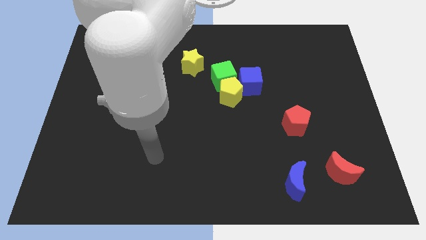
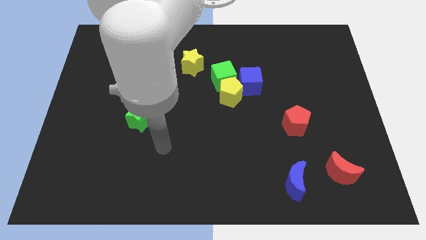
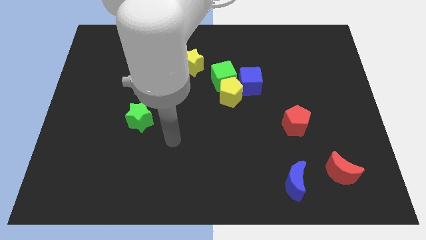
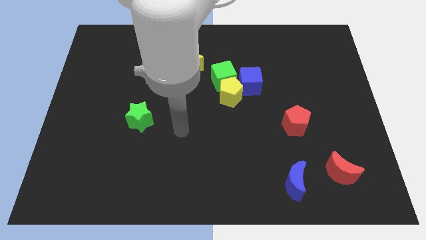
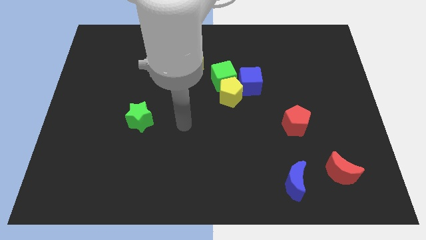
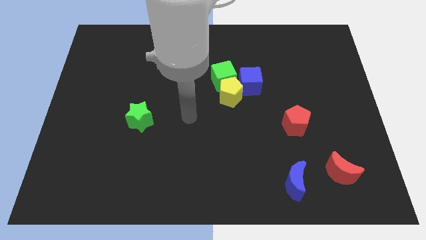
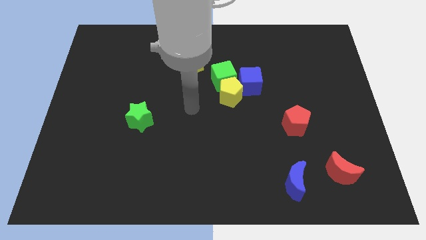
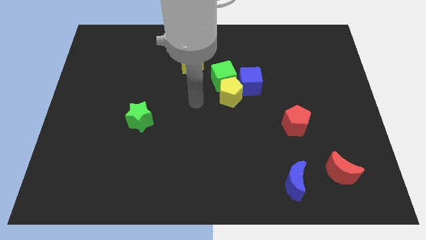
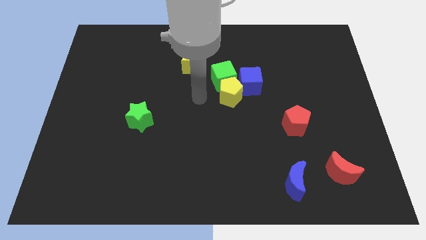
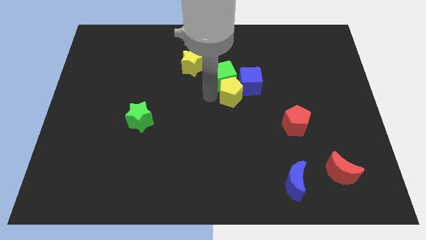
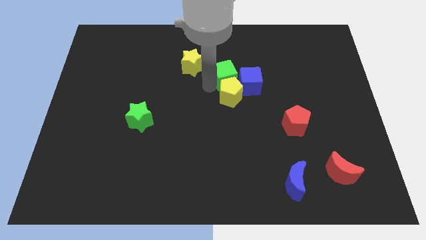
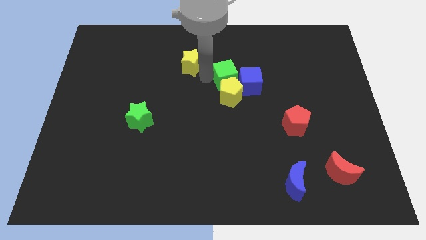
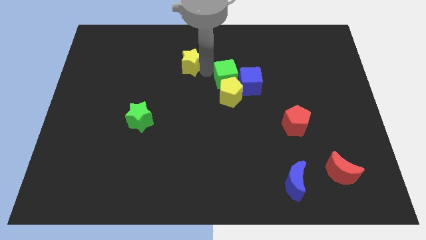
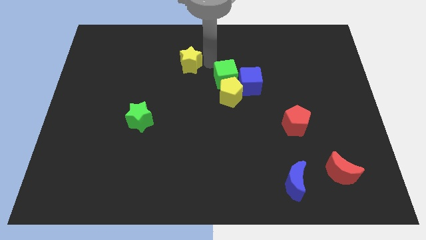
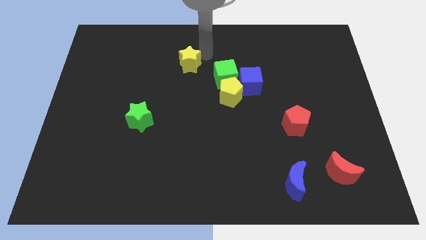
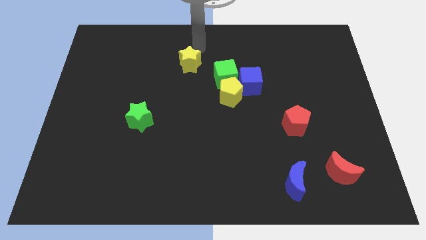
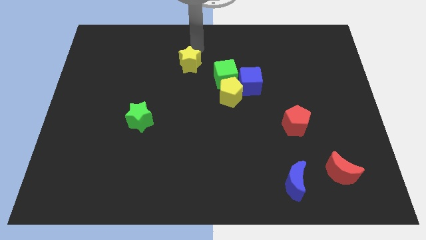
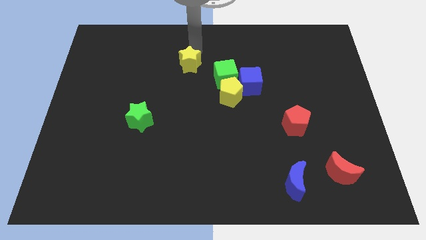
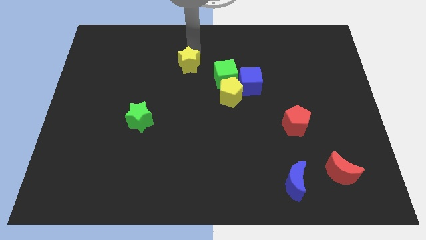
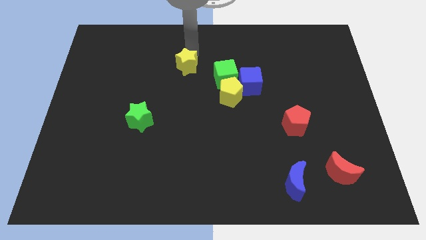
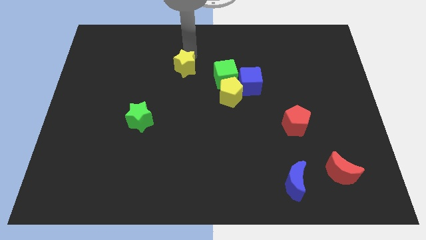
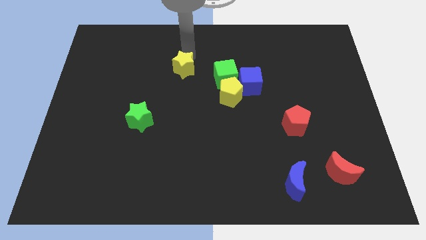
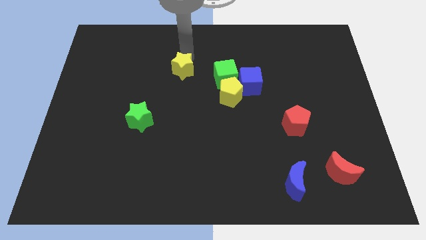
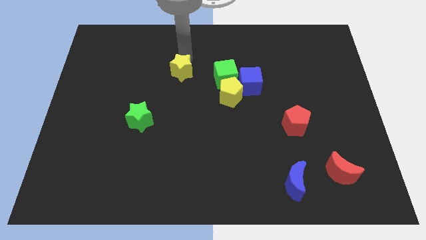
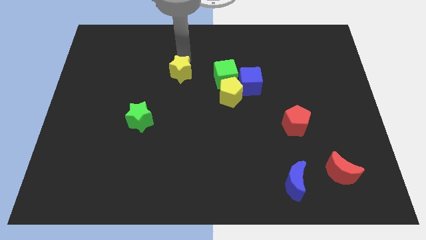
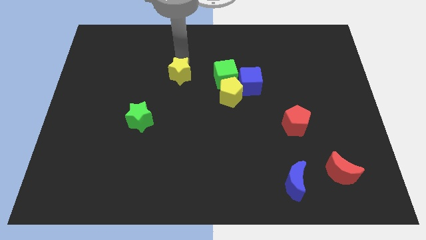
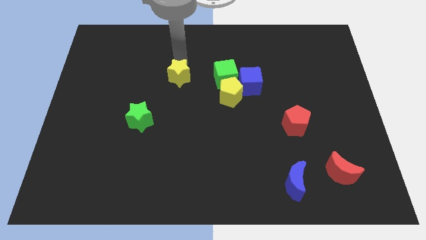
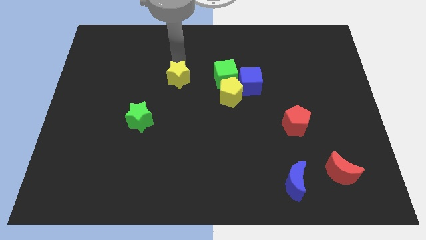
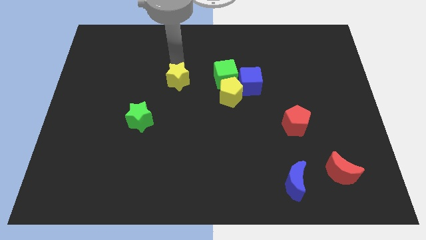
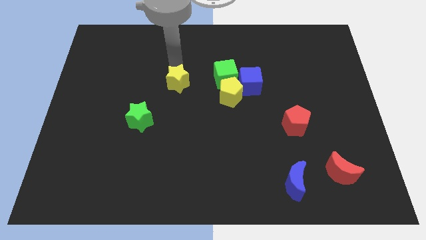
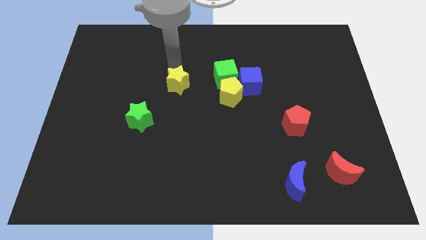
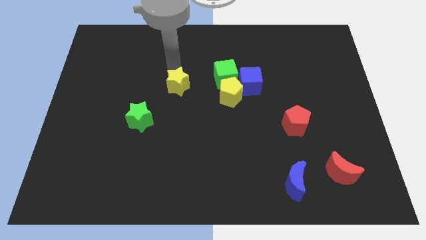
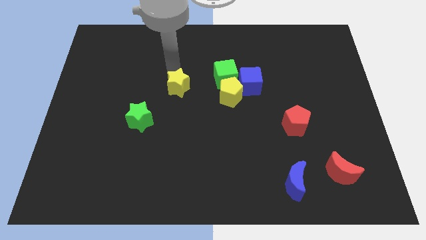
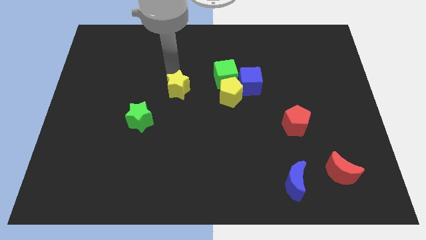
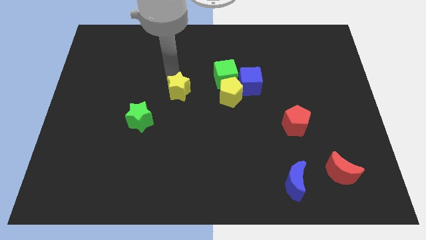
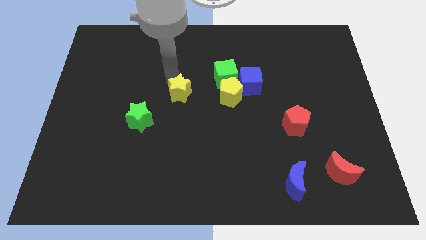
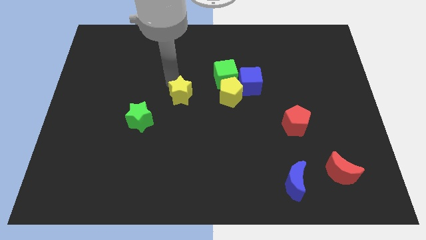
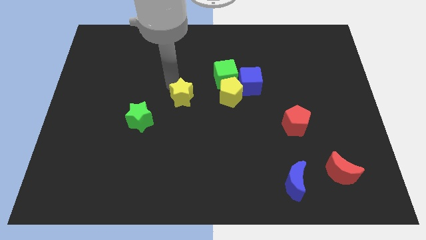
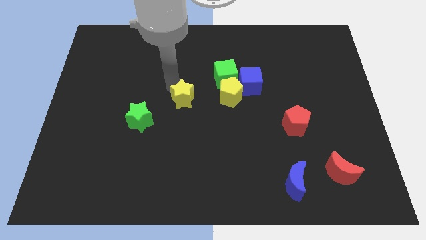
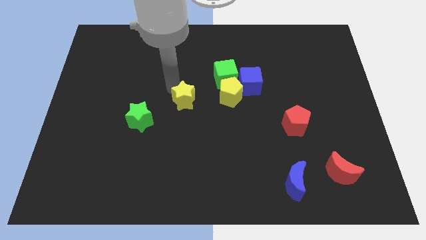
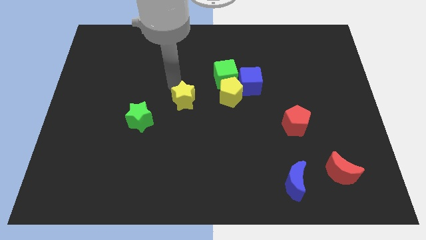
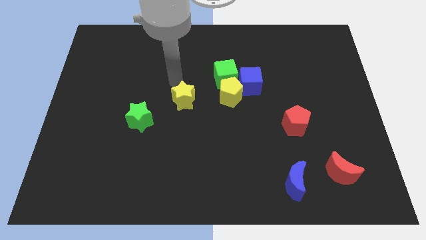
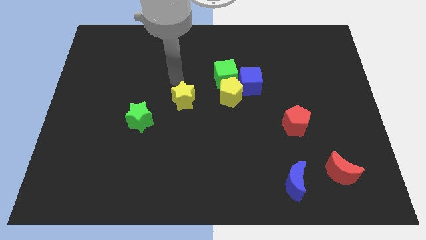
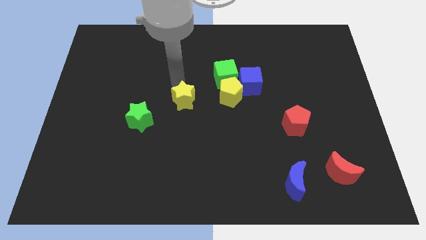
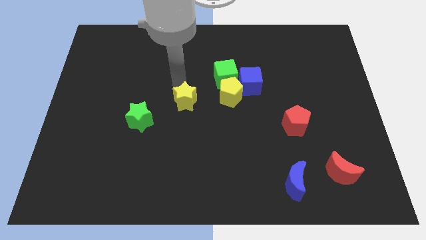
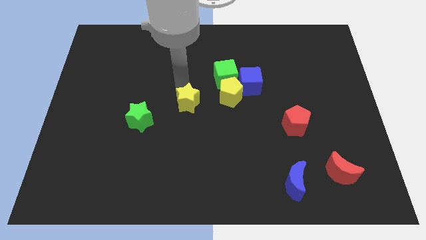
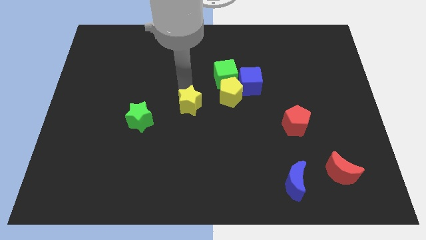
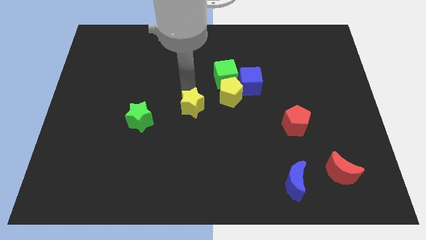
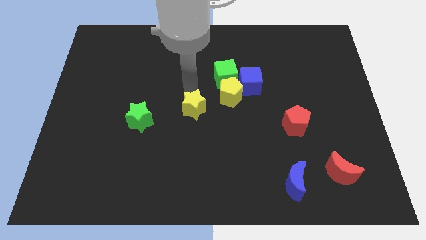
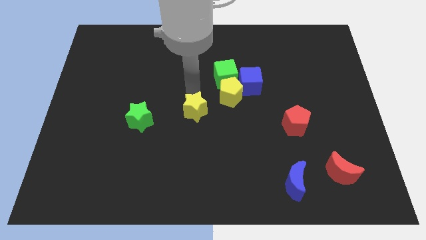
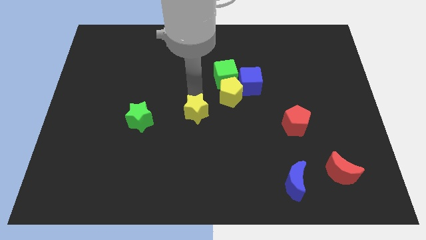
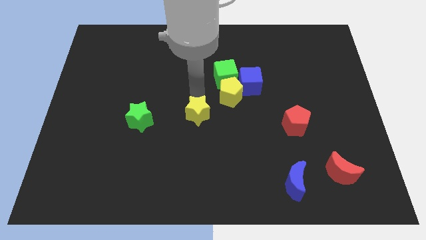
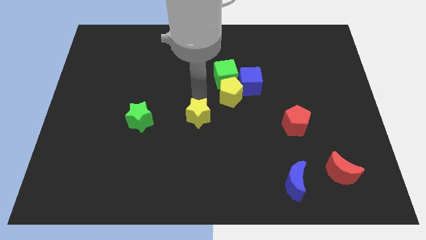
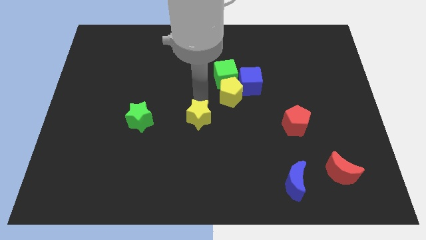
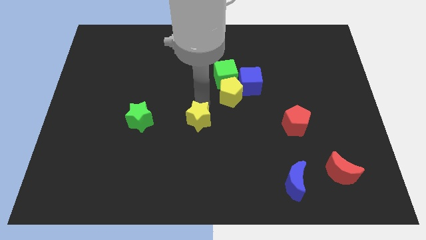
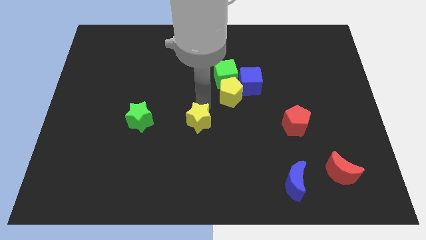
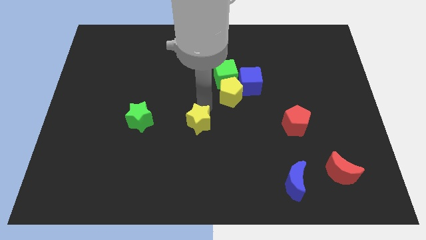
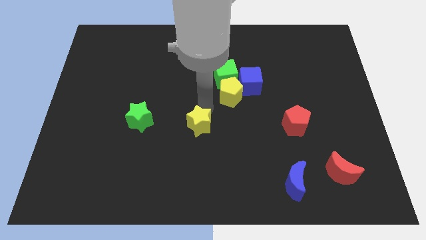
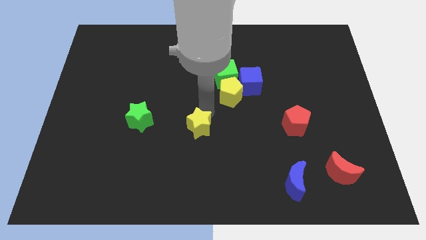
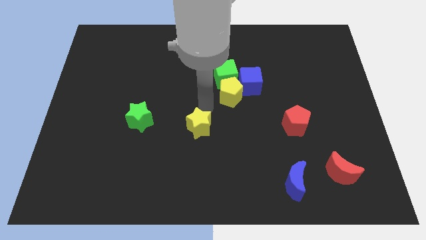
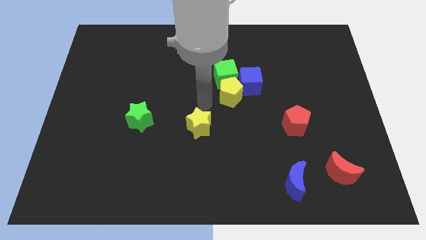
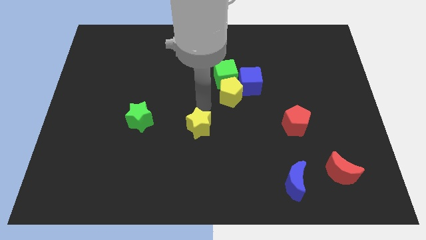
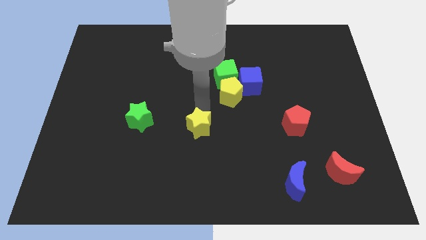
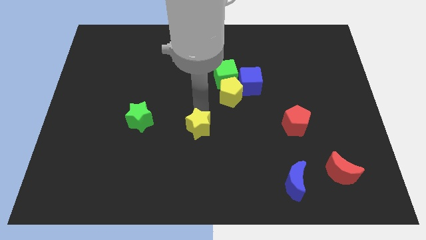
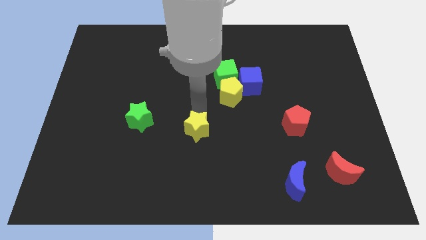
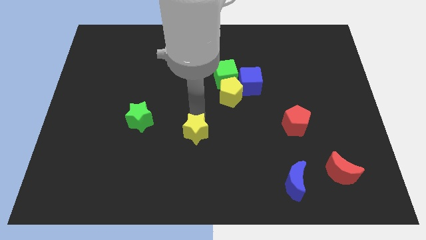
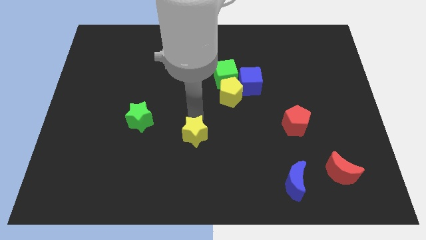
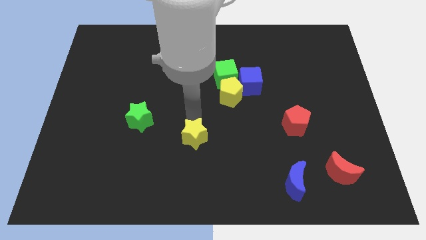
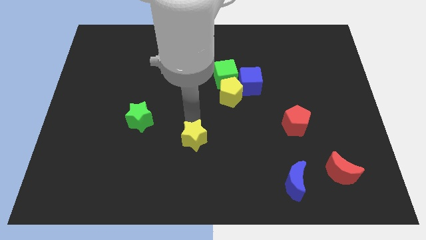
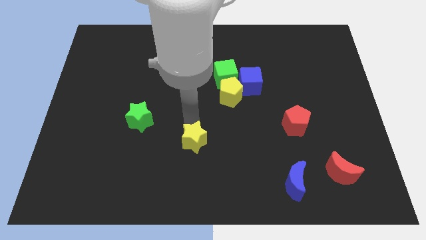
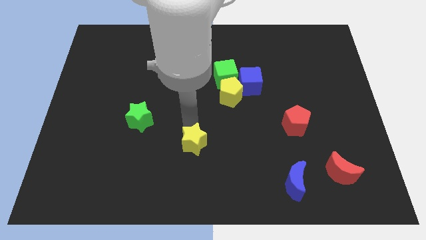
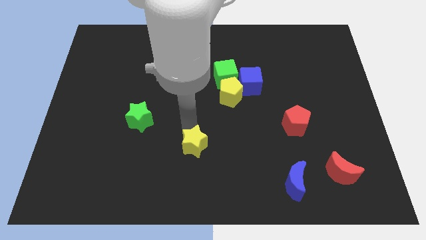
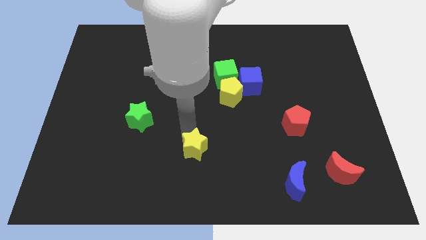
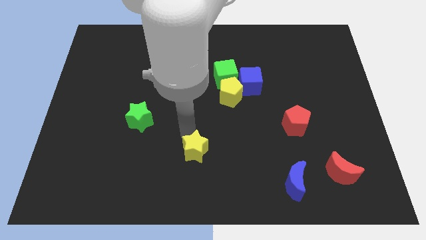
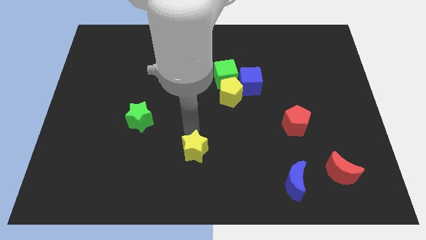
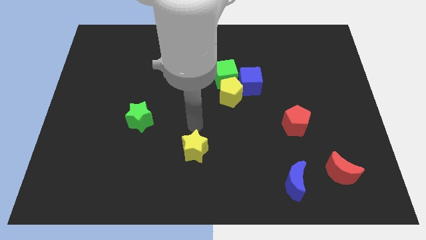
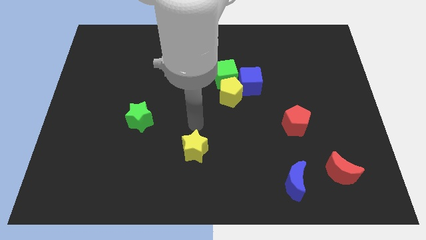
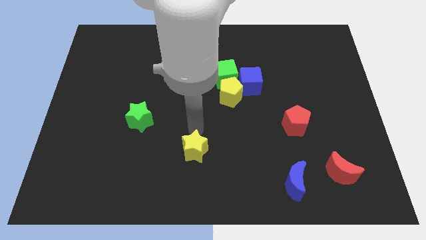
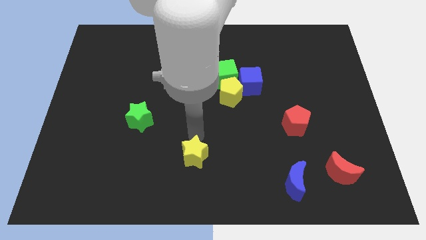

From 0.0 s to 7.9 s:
slide the yellow star to the bottom
